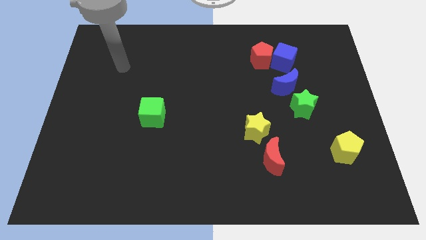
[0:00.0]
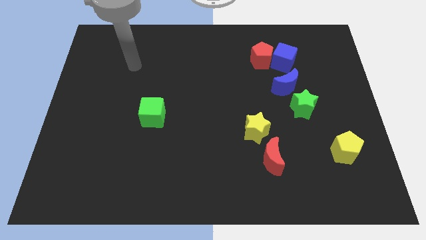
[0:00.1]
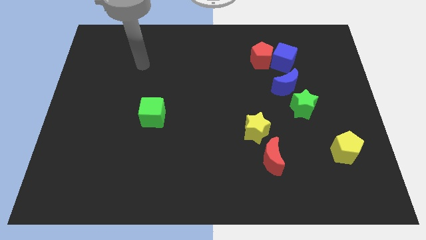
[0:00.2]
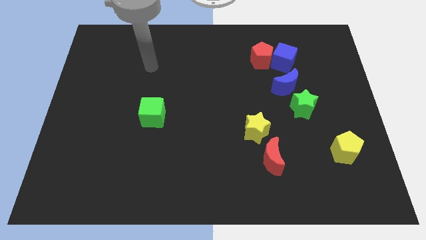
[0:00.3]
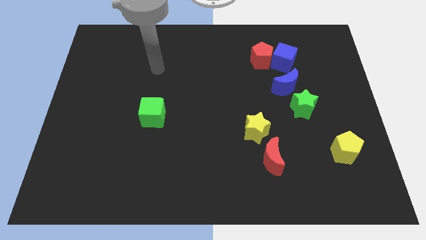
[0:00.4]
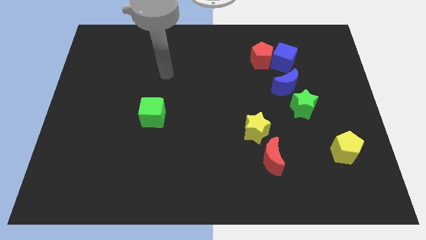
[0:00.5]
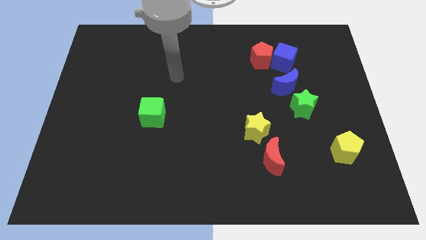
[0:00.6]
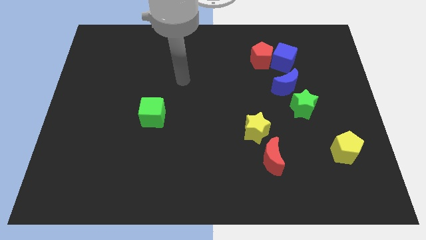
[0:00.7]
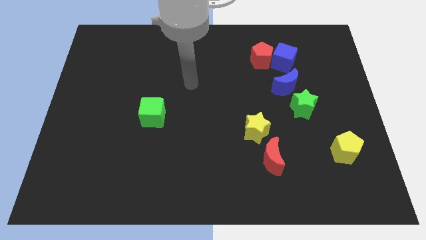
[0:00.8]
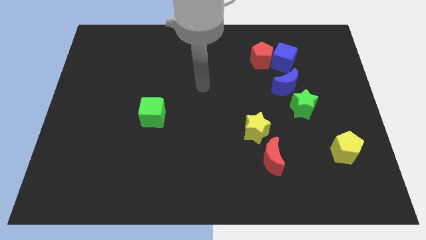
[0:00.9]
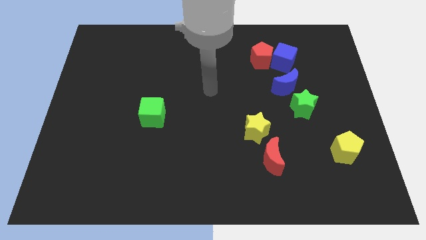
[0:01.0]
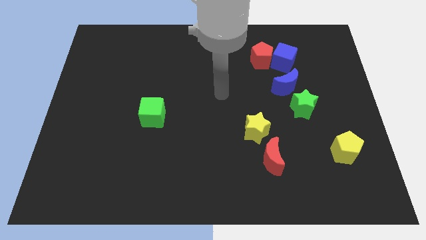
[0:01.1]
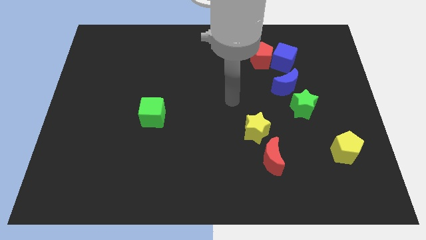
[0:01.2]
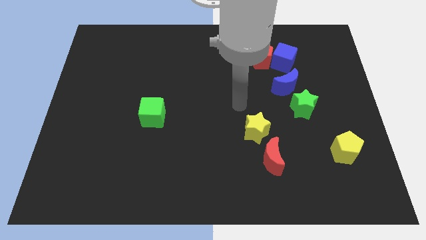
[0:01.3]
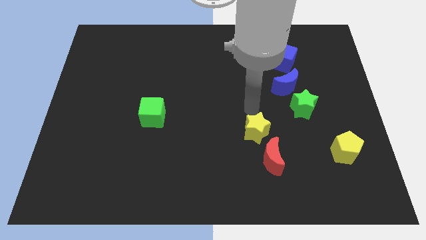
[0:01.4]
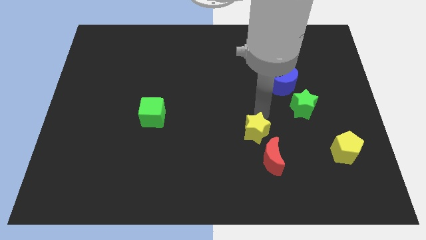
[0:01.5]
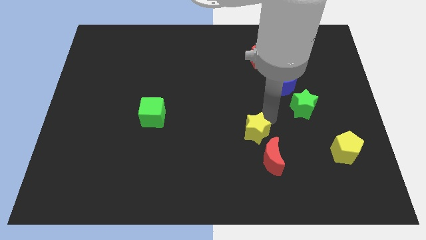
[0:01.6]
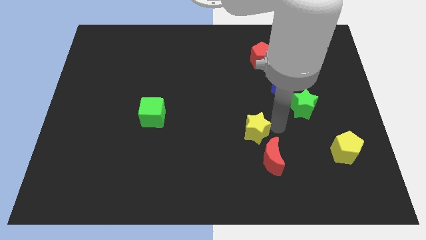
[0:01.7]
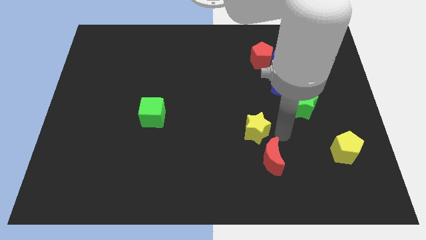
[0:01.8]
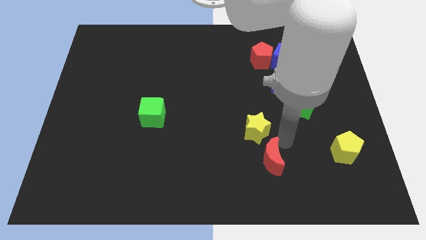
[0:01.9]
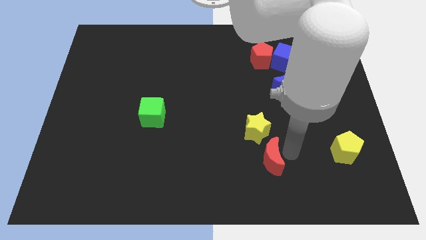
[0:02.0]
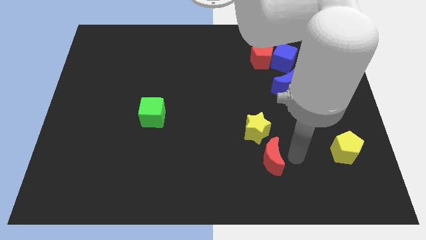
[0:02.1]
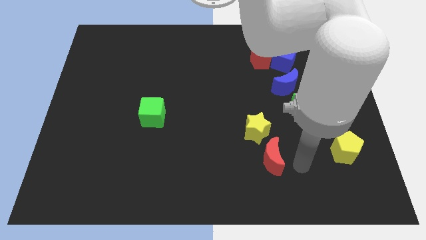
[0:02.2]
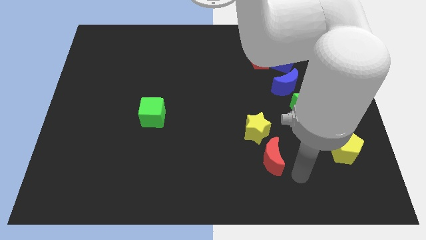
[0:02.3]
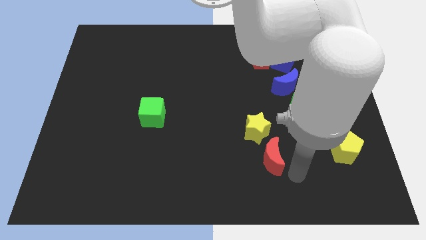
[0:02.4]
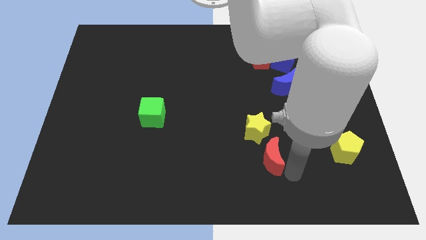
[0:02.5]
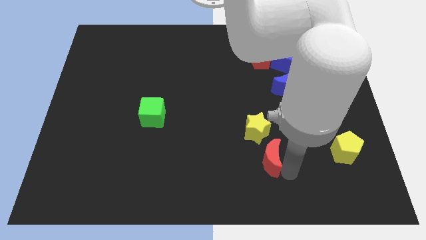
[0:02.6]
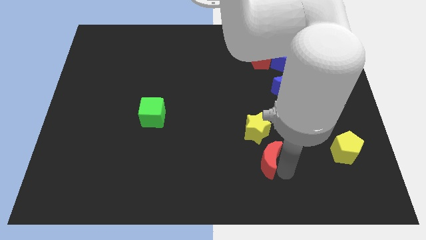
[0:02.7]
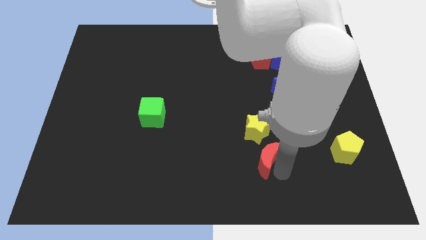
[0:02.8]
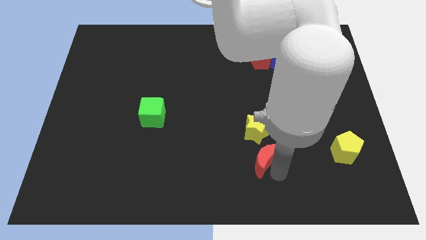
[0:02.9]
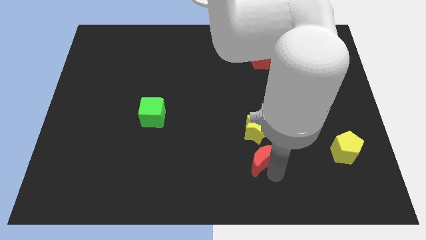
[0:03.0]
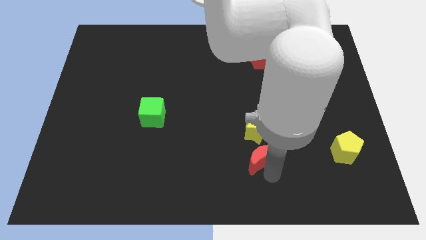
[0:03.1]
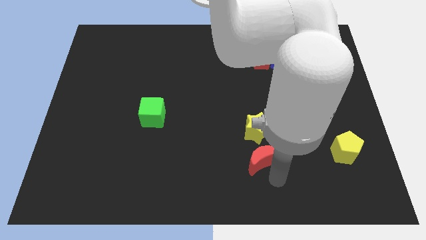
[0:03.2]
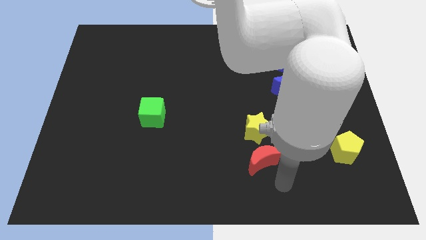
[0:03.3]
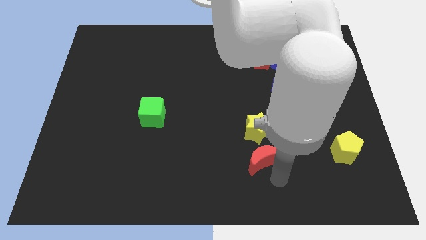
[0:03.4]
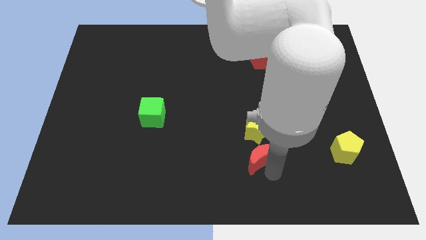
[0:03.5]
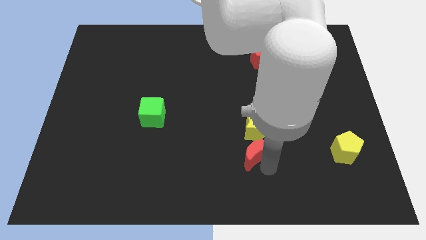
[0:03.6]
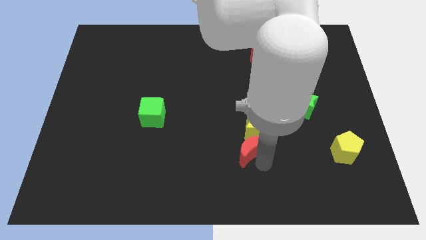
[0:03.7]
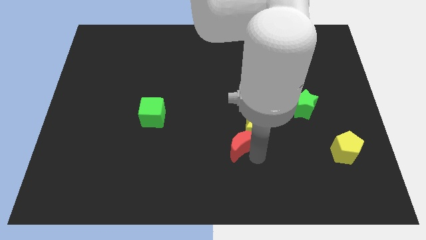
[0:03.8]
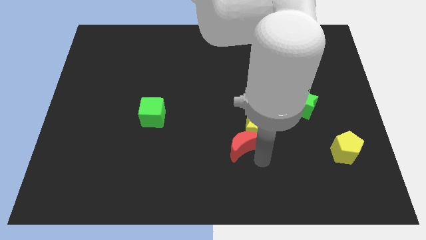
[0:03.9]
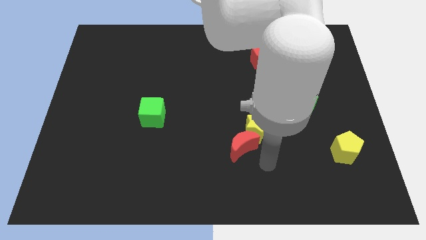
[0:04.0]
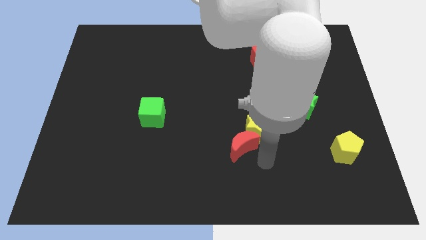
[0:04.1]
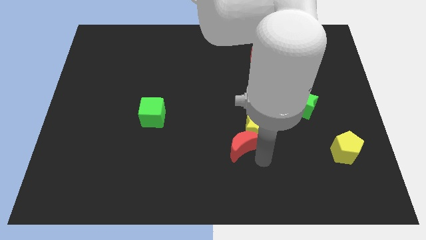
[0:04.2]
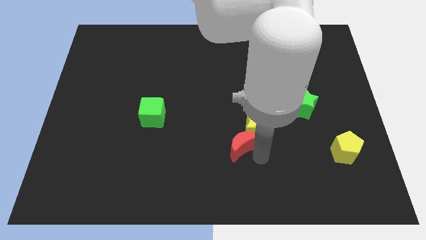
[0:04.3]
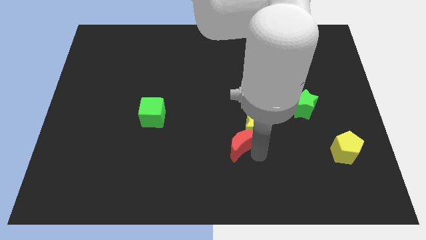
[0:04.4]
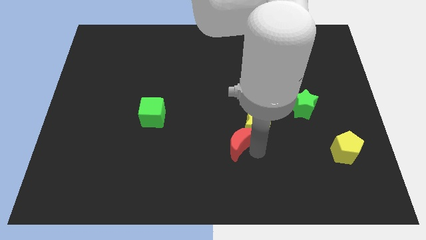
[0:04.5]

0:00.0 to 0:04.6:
slightly slide the red moon up and then to the left

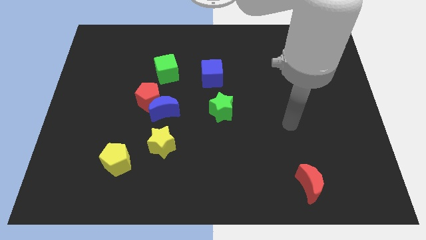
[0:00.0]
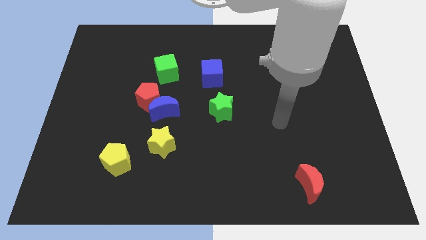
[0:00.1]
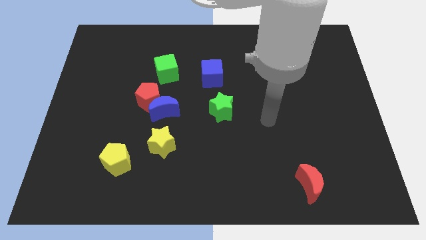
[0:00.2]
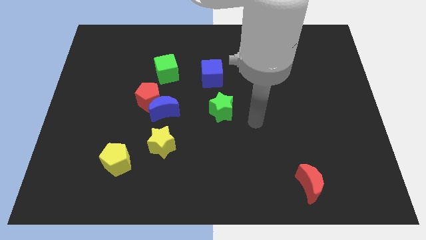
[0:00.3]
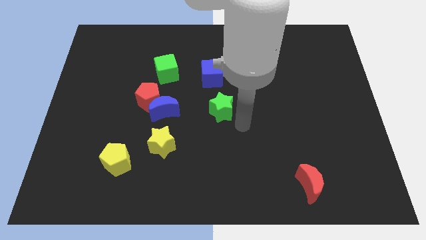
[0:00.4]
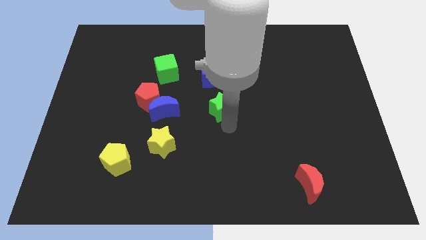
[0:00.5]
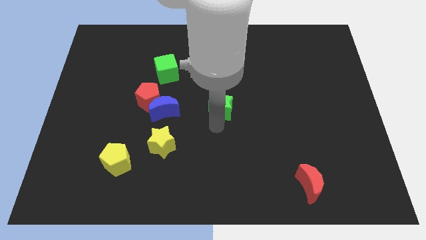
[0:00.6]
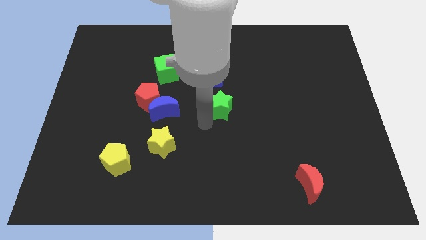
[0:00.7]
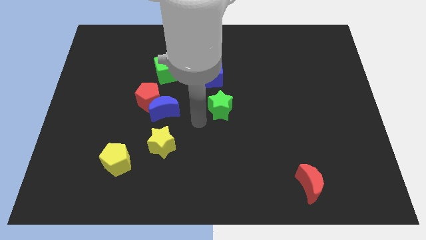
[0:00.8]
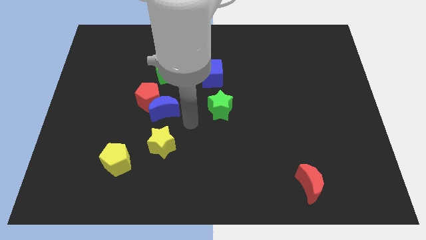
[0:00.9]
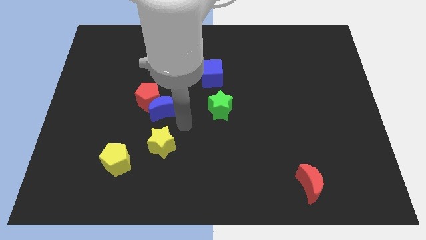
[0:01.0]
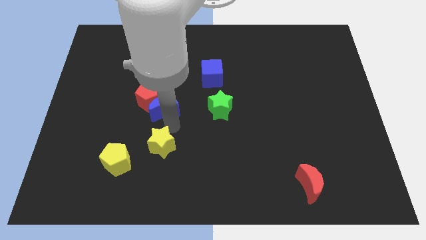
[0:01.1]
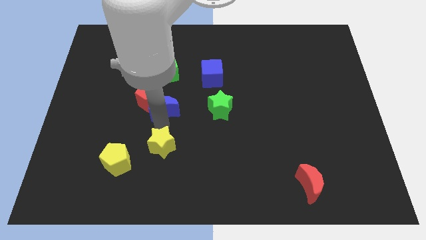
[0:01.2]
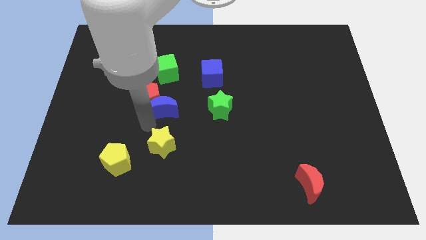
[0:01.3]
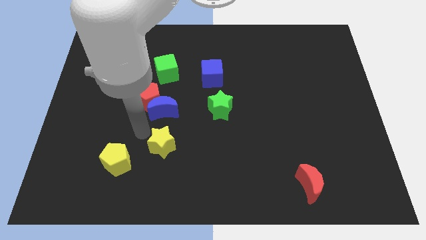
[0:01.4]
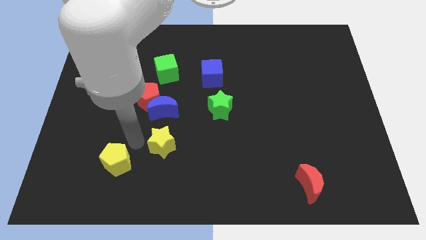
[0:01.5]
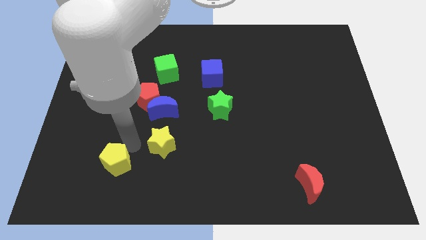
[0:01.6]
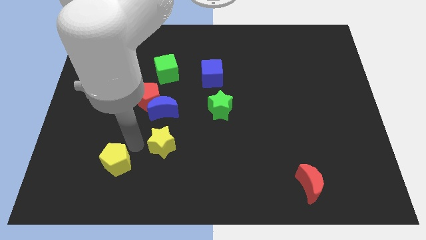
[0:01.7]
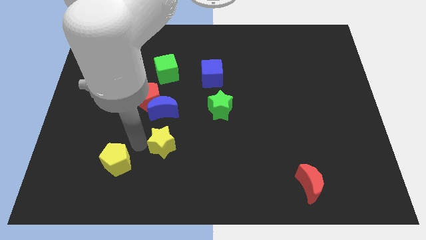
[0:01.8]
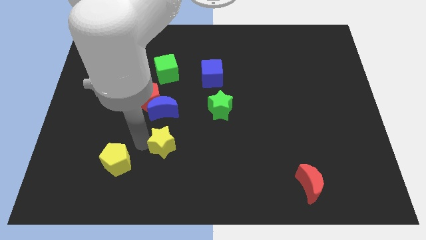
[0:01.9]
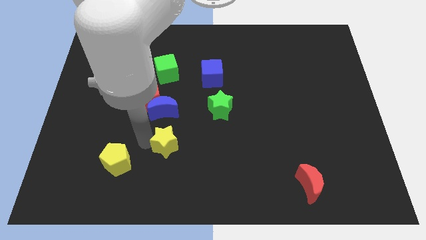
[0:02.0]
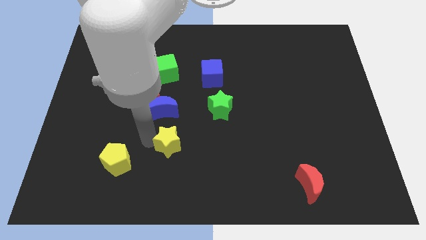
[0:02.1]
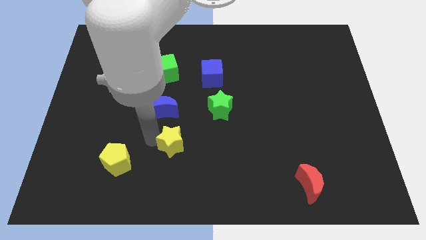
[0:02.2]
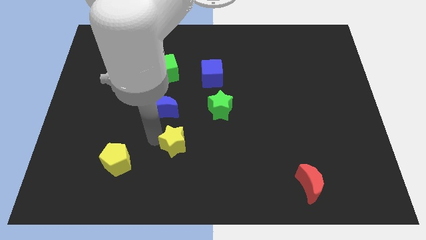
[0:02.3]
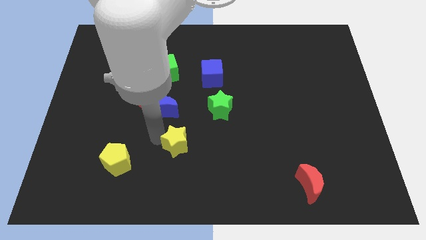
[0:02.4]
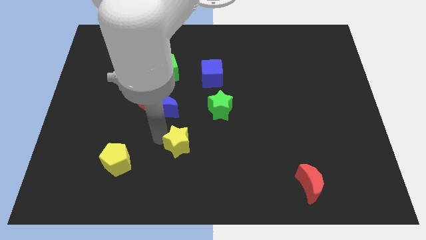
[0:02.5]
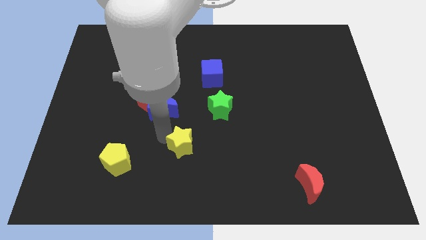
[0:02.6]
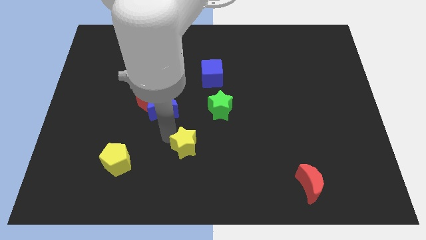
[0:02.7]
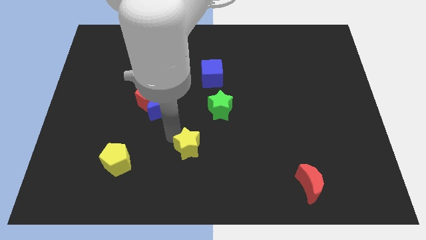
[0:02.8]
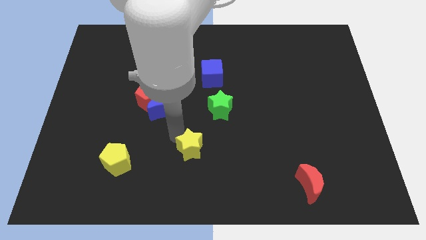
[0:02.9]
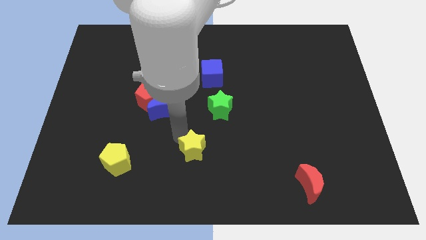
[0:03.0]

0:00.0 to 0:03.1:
slightly push the yellow star to the right

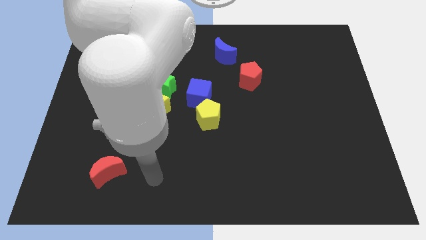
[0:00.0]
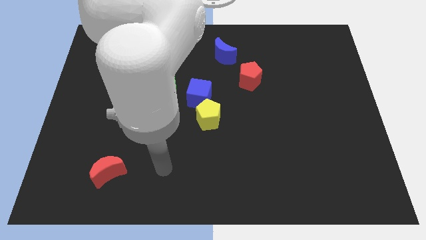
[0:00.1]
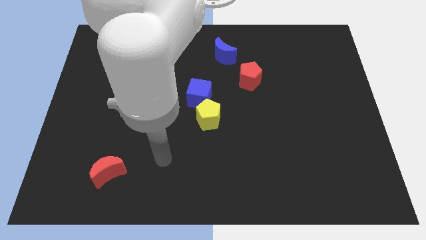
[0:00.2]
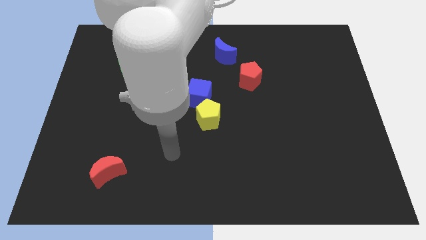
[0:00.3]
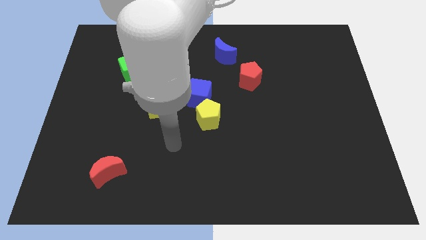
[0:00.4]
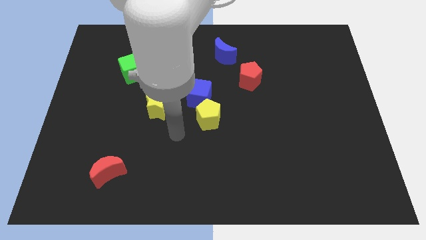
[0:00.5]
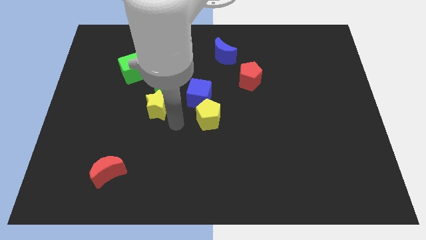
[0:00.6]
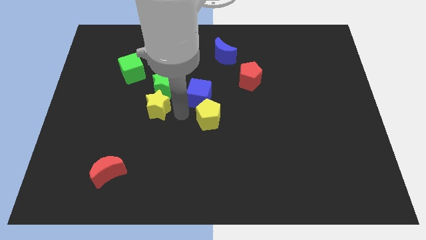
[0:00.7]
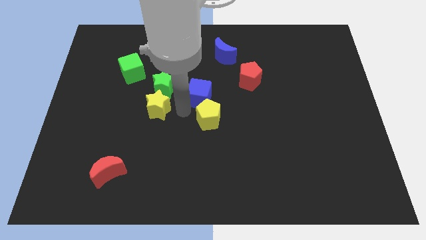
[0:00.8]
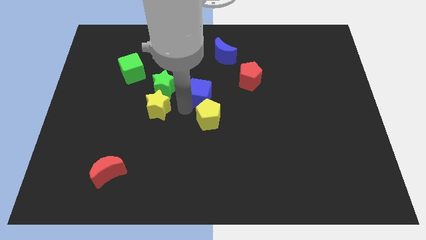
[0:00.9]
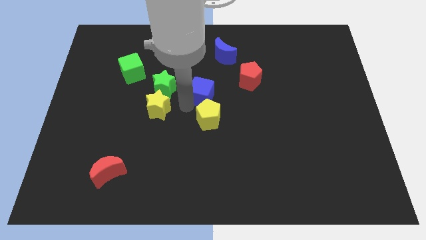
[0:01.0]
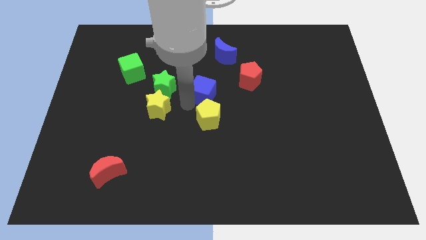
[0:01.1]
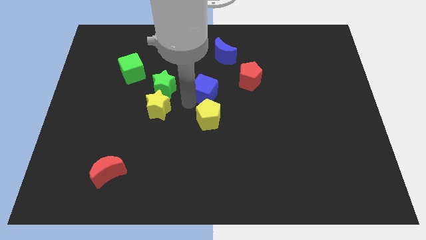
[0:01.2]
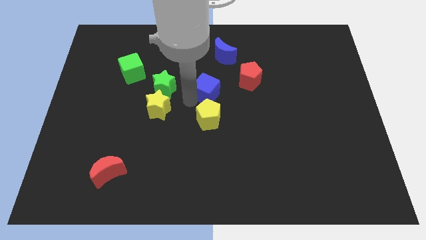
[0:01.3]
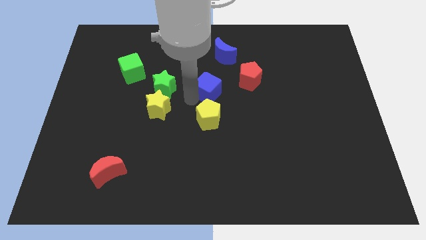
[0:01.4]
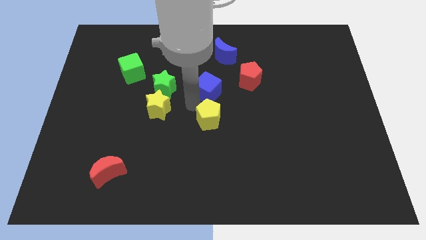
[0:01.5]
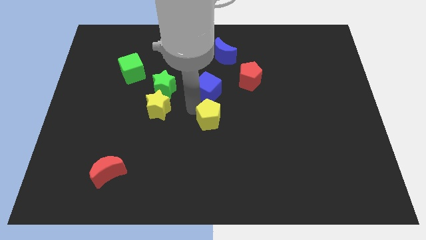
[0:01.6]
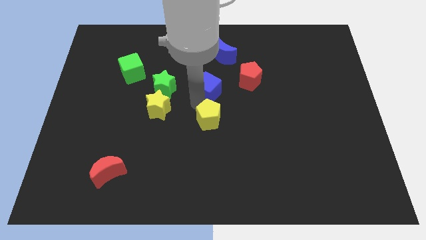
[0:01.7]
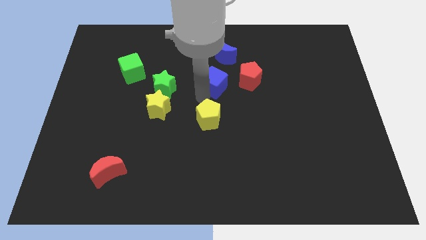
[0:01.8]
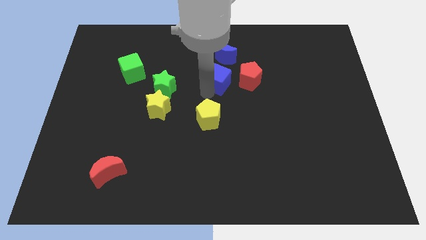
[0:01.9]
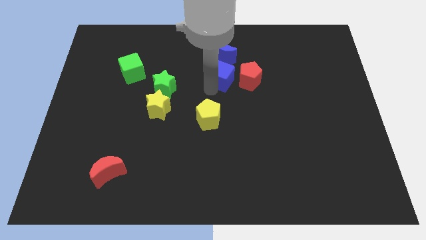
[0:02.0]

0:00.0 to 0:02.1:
push the blue cube slightly up and to the right
